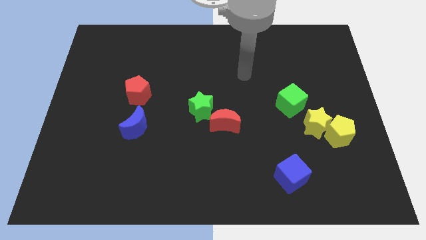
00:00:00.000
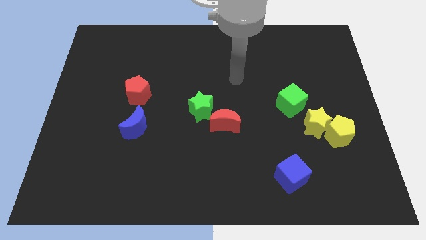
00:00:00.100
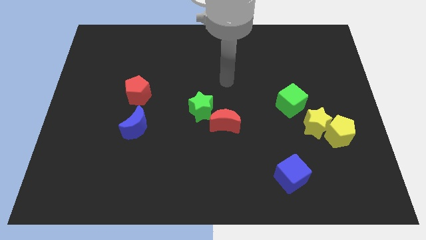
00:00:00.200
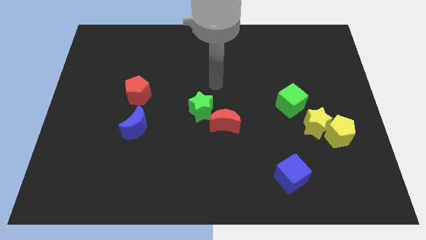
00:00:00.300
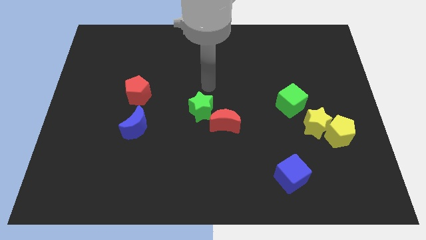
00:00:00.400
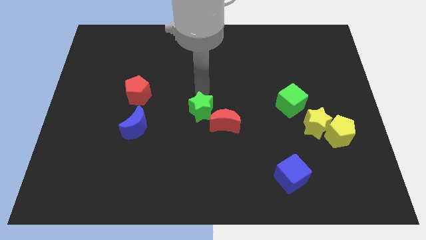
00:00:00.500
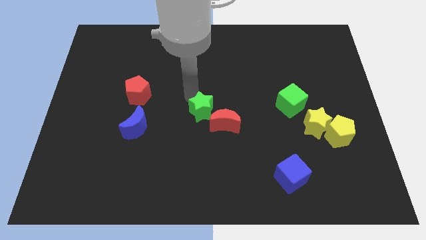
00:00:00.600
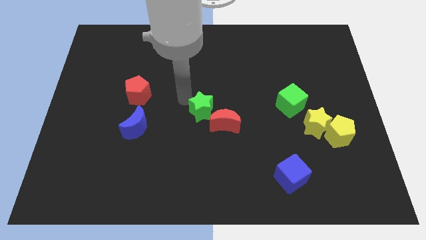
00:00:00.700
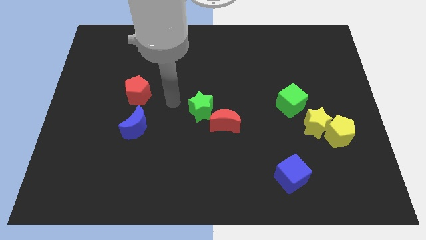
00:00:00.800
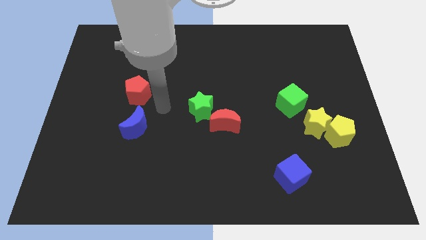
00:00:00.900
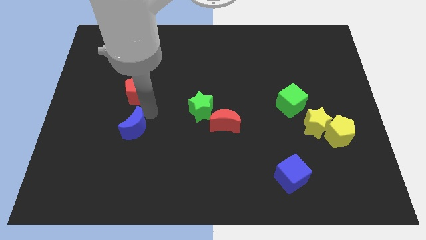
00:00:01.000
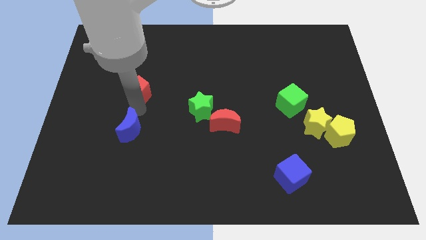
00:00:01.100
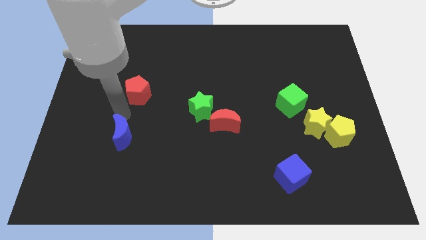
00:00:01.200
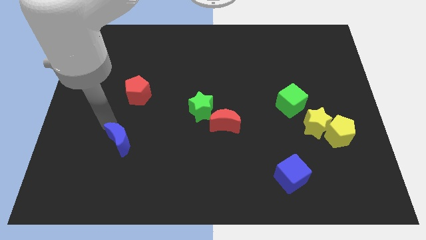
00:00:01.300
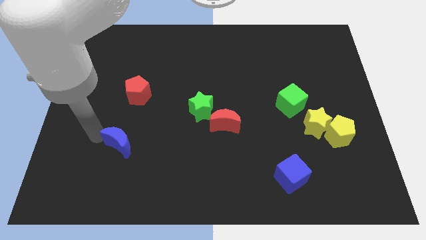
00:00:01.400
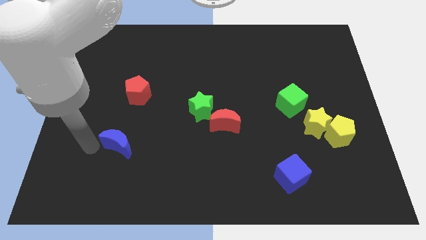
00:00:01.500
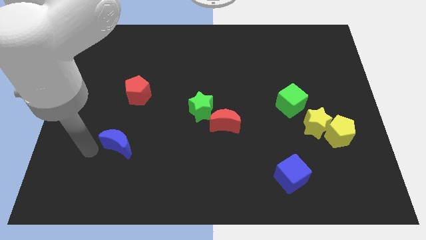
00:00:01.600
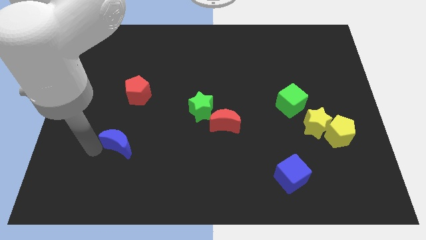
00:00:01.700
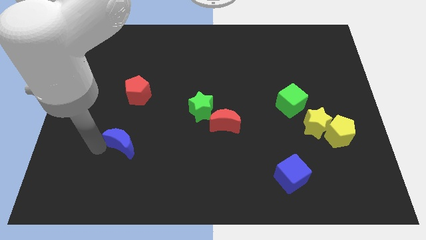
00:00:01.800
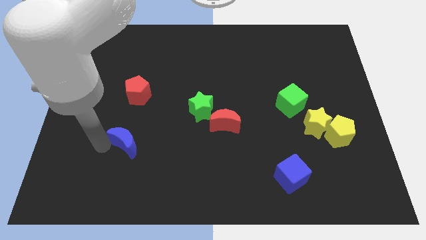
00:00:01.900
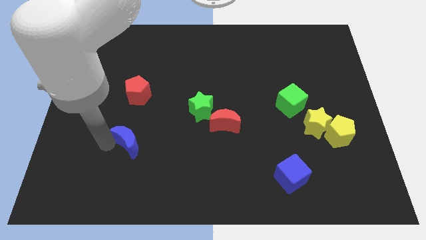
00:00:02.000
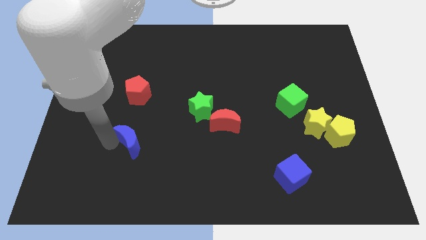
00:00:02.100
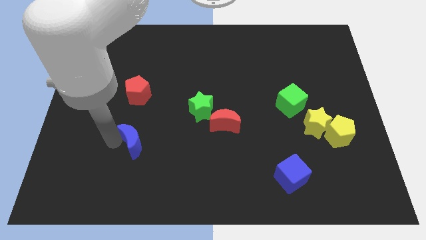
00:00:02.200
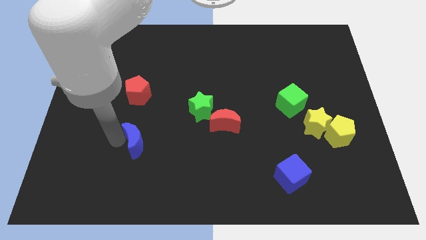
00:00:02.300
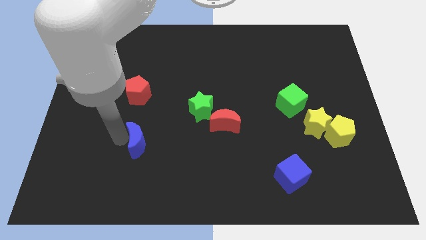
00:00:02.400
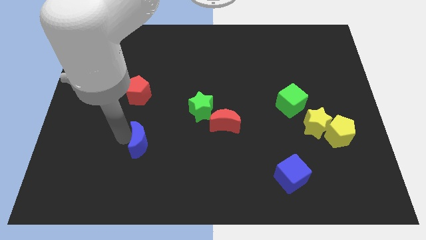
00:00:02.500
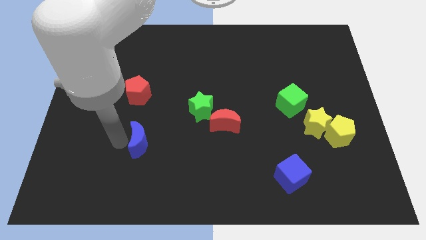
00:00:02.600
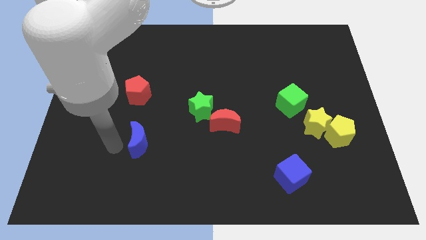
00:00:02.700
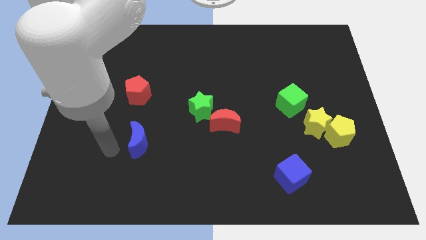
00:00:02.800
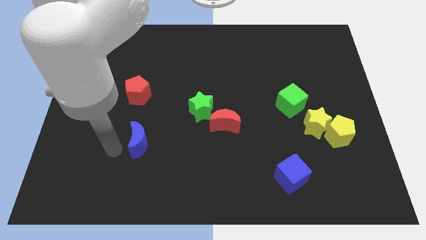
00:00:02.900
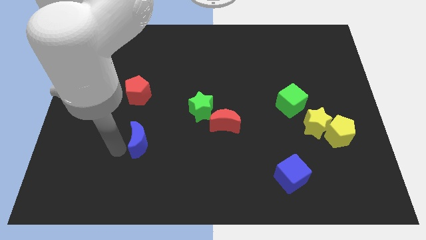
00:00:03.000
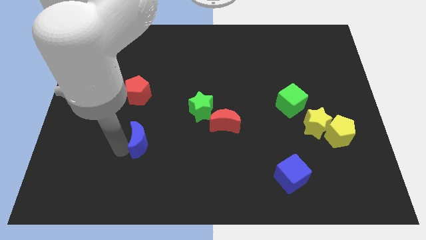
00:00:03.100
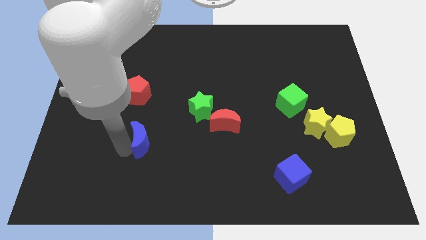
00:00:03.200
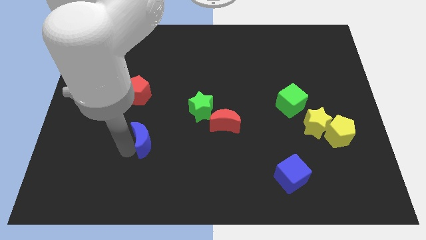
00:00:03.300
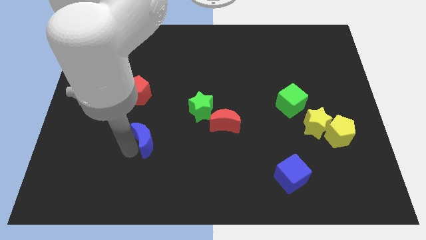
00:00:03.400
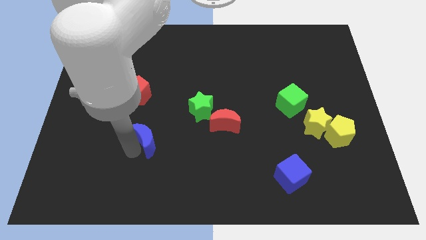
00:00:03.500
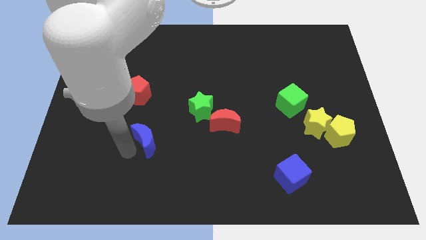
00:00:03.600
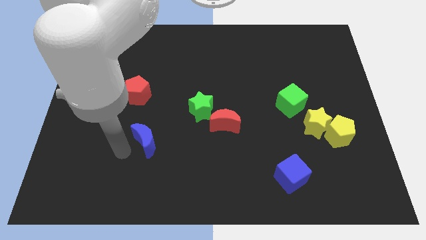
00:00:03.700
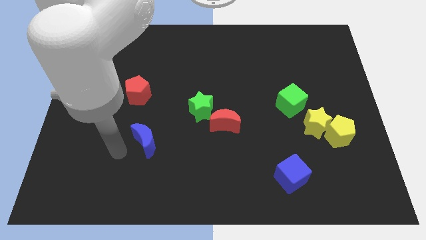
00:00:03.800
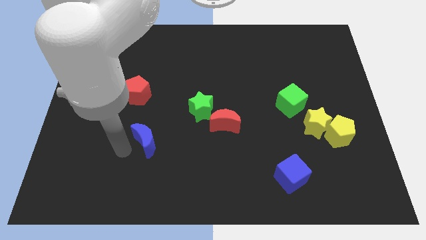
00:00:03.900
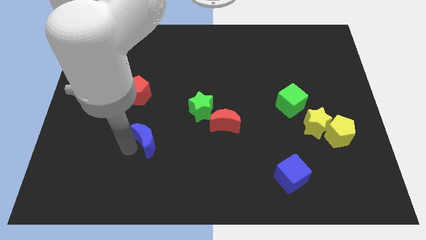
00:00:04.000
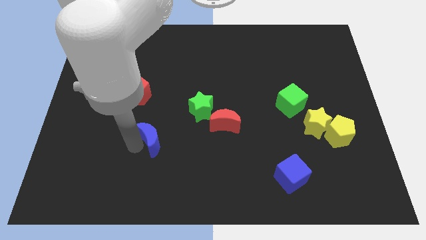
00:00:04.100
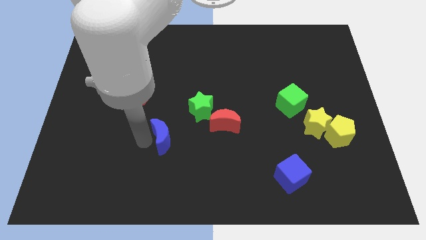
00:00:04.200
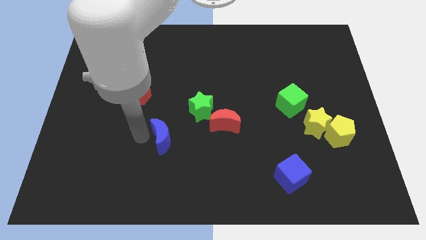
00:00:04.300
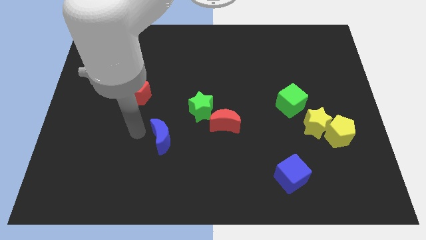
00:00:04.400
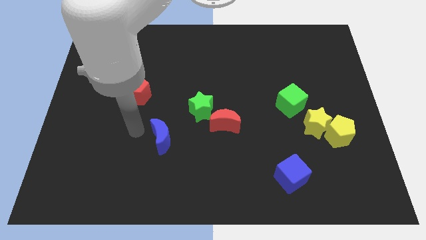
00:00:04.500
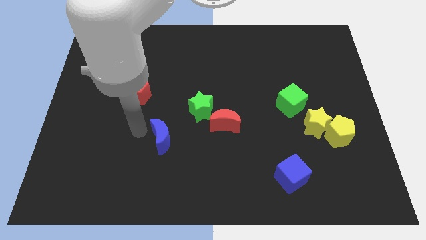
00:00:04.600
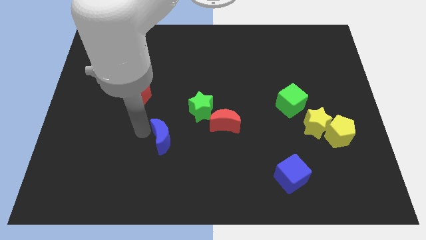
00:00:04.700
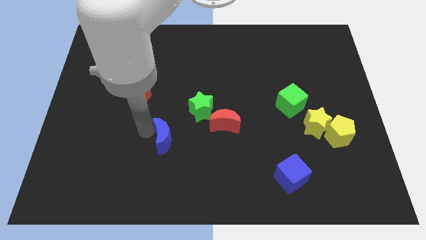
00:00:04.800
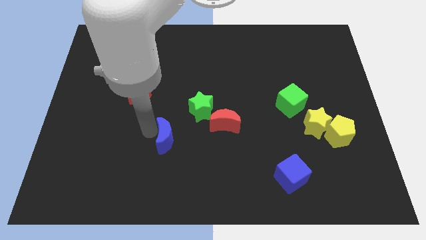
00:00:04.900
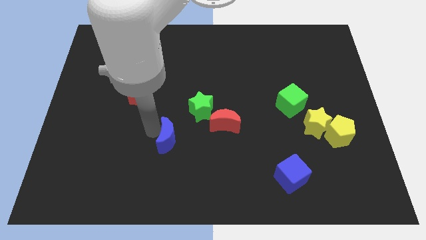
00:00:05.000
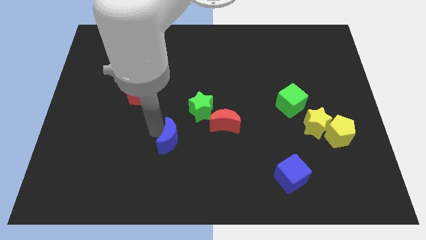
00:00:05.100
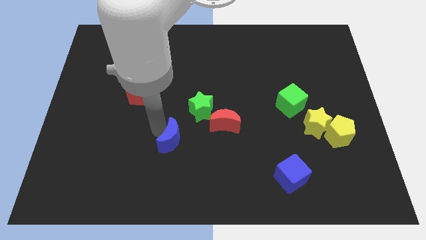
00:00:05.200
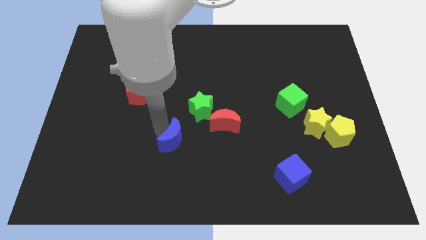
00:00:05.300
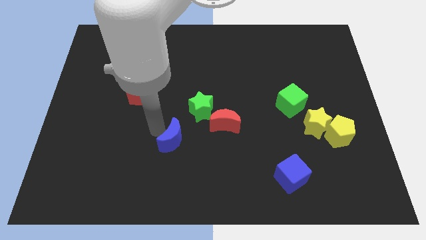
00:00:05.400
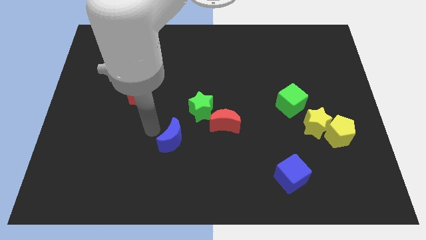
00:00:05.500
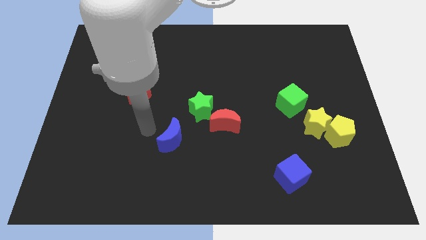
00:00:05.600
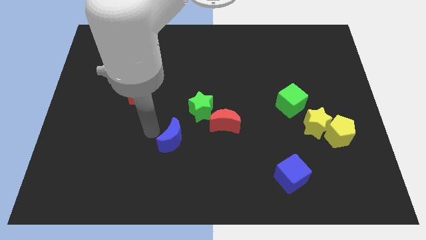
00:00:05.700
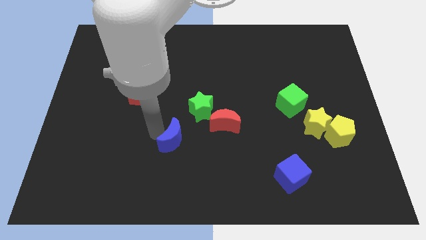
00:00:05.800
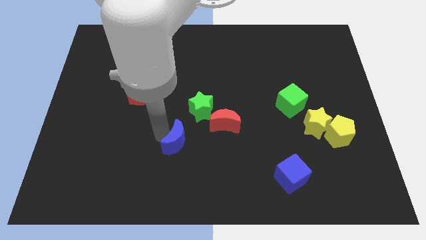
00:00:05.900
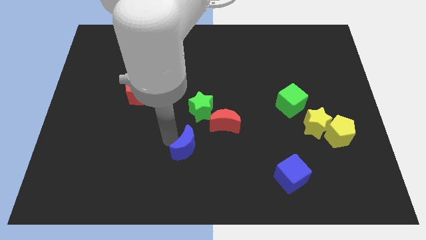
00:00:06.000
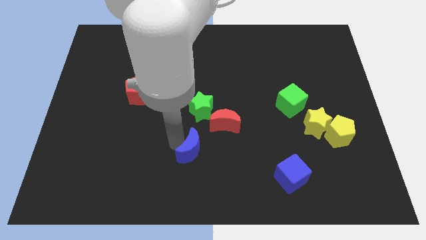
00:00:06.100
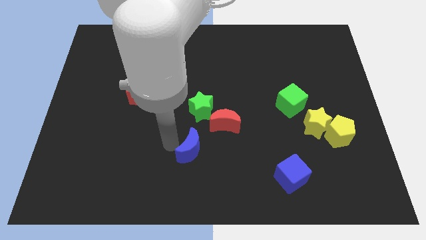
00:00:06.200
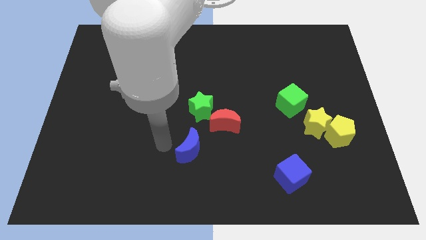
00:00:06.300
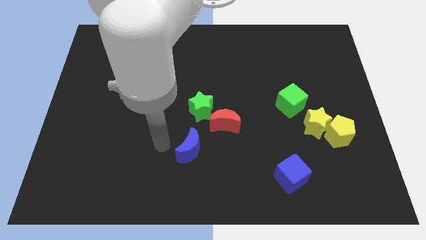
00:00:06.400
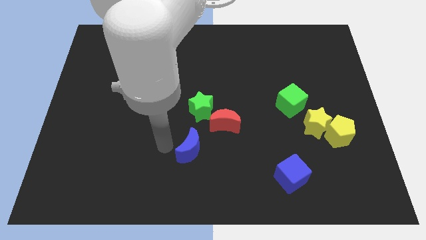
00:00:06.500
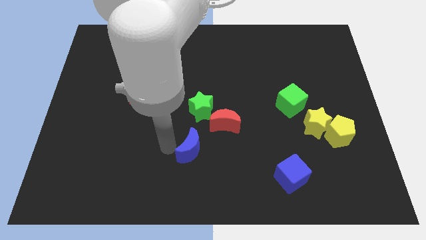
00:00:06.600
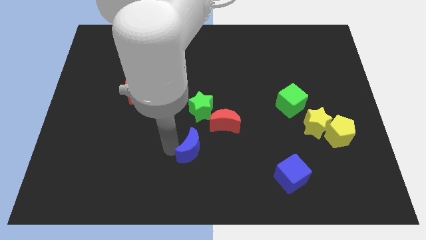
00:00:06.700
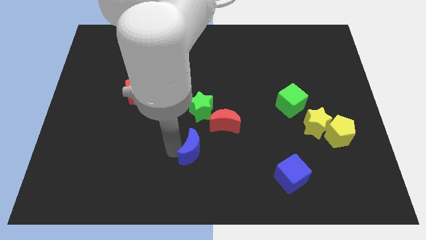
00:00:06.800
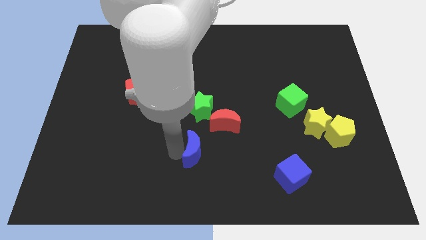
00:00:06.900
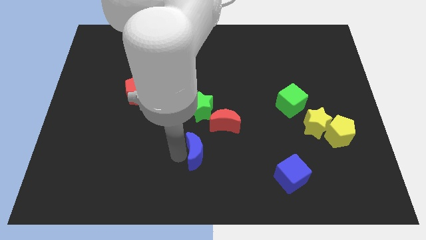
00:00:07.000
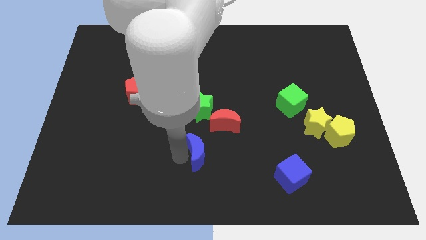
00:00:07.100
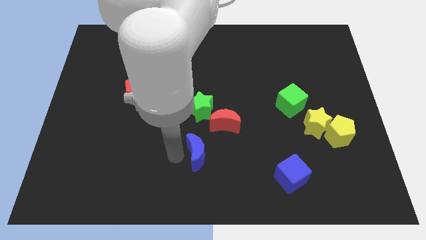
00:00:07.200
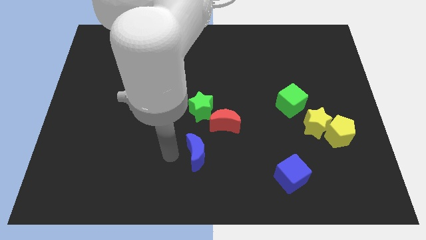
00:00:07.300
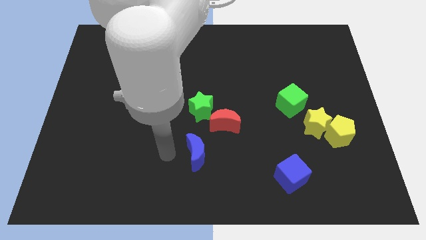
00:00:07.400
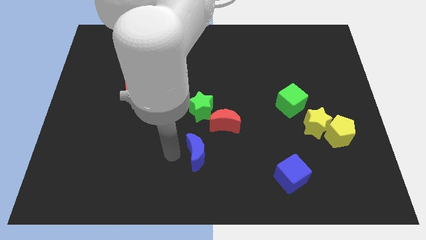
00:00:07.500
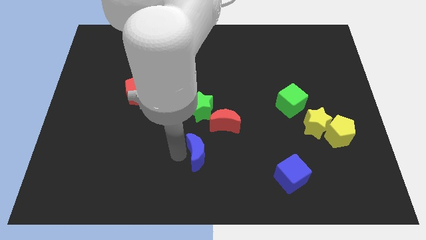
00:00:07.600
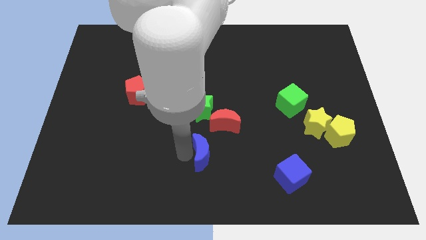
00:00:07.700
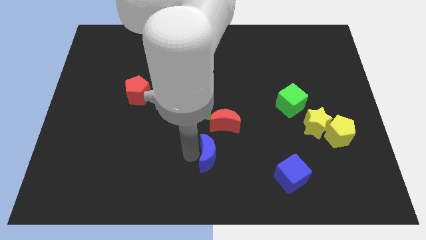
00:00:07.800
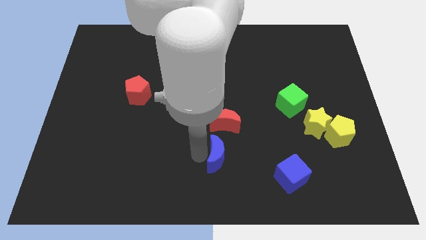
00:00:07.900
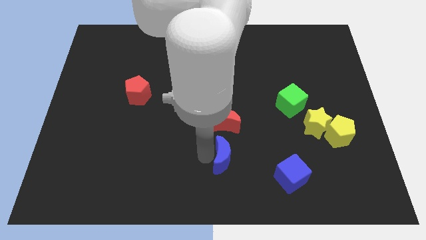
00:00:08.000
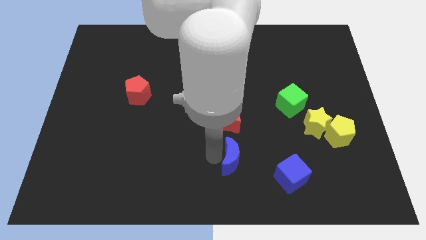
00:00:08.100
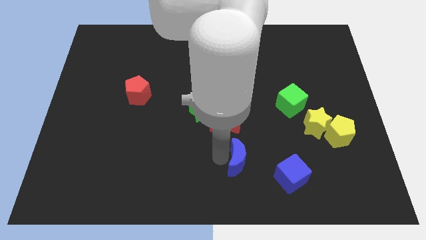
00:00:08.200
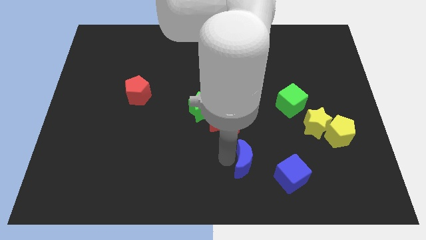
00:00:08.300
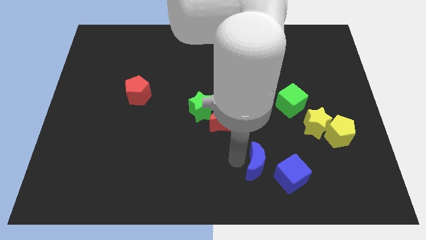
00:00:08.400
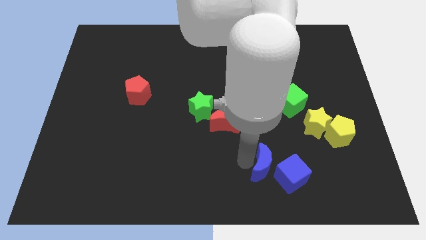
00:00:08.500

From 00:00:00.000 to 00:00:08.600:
push the blue moon next to the blue cube
